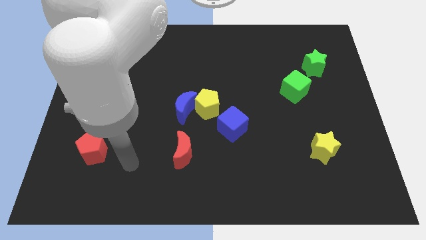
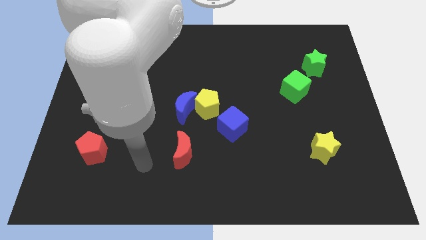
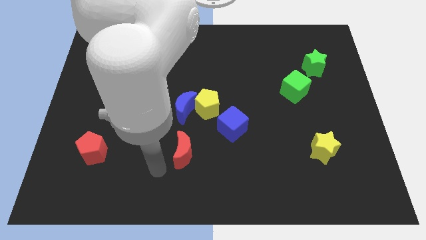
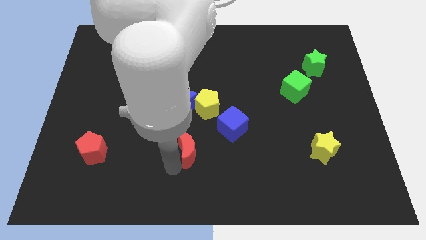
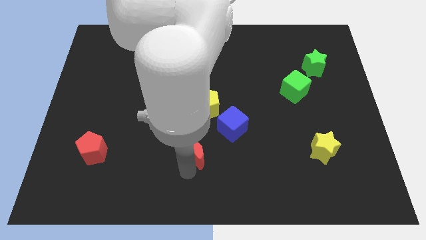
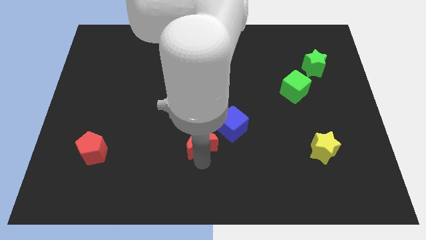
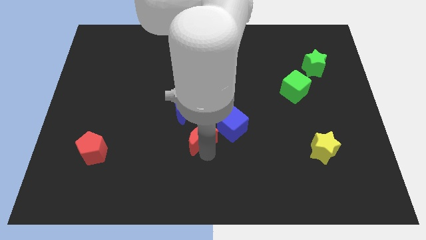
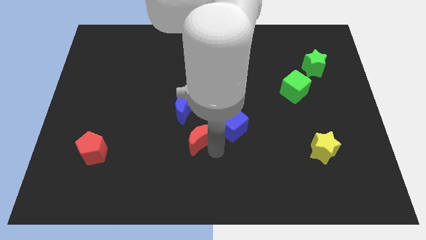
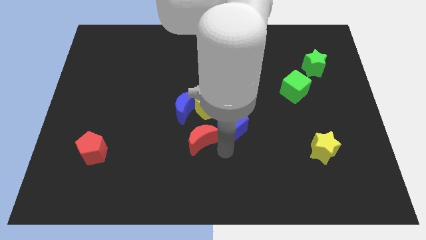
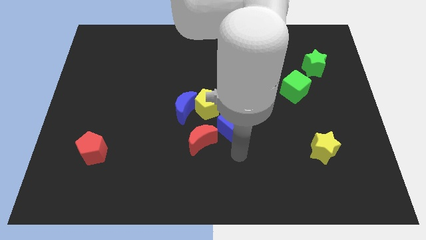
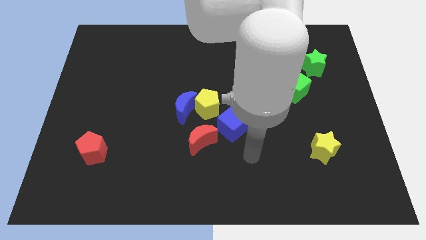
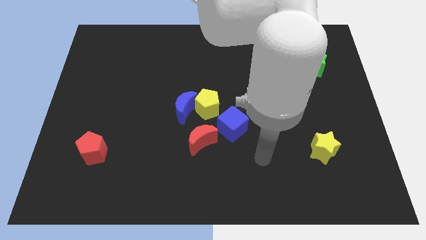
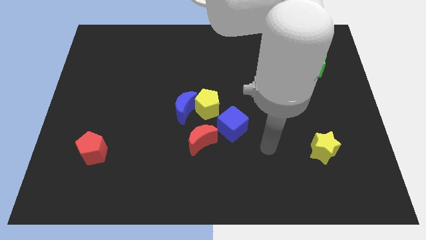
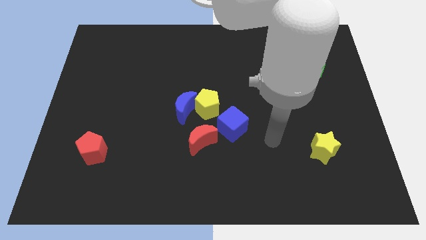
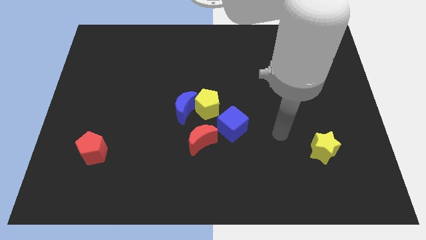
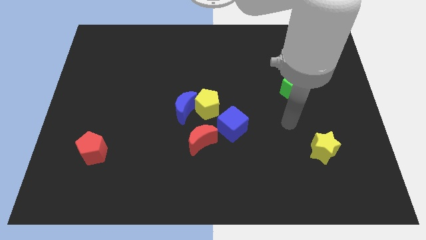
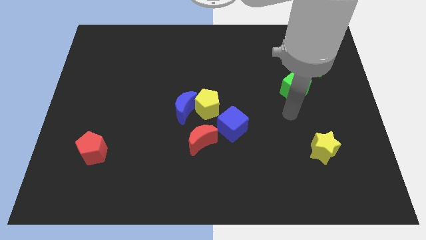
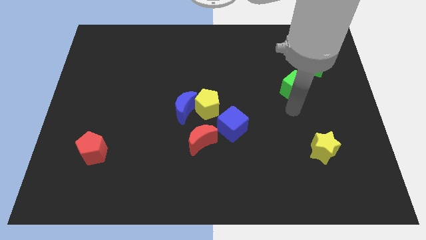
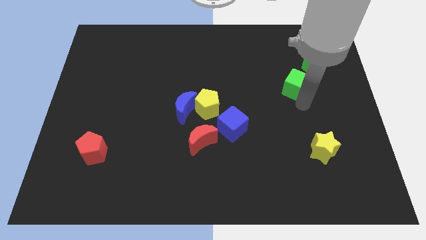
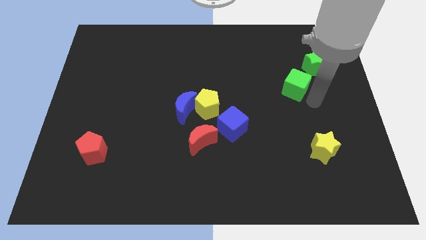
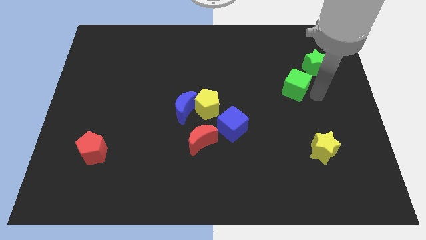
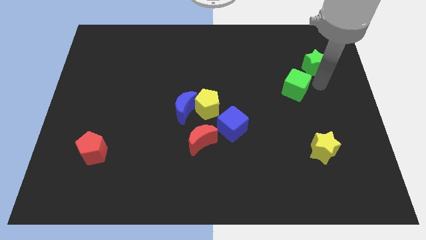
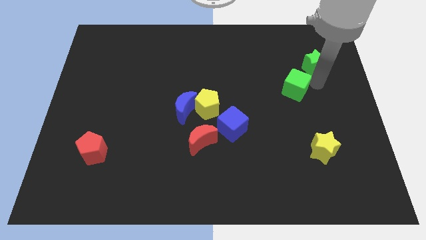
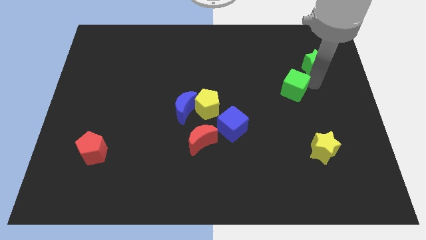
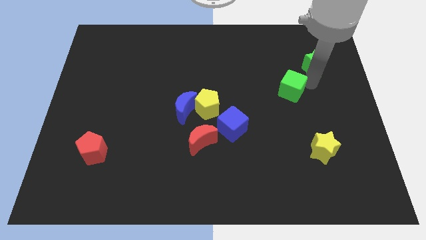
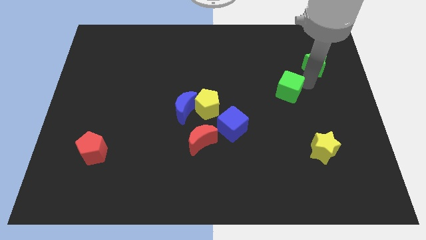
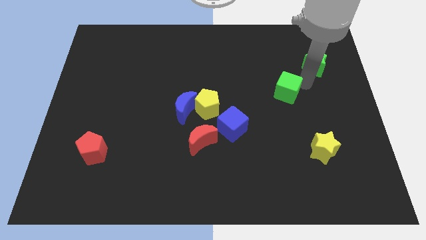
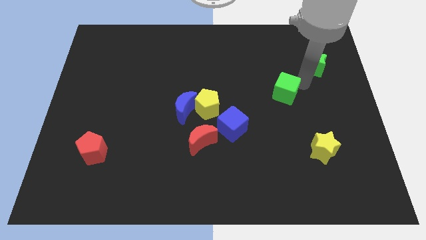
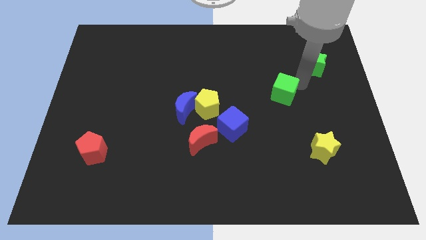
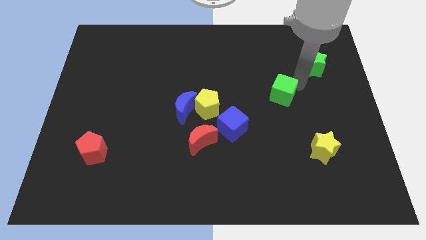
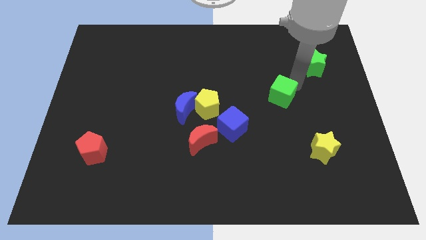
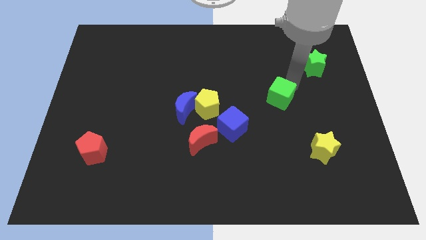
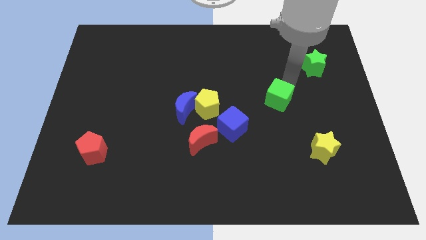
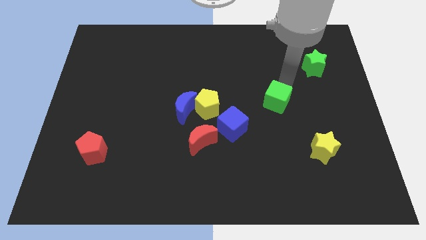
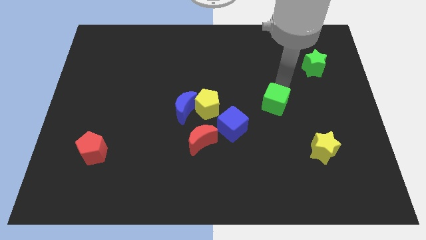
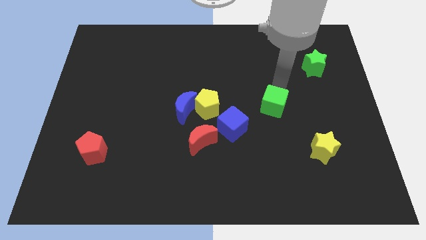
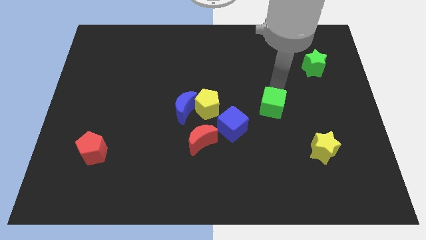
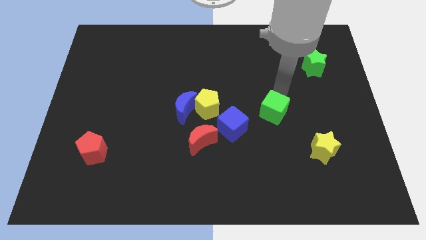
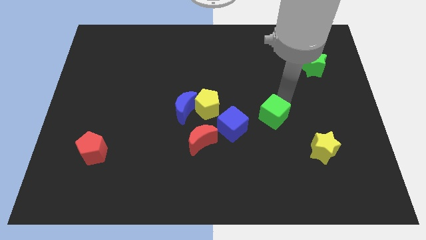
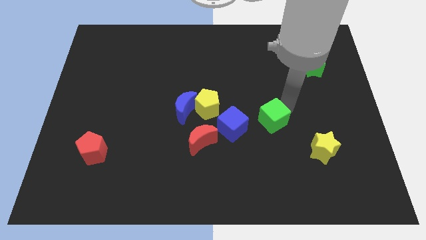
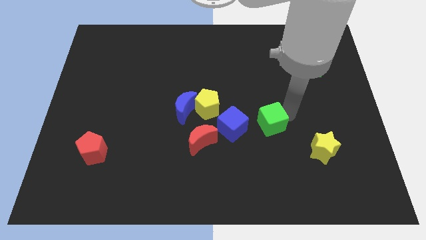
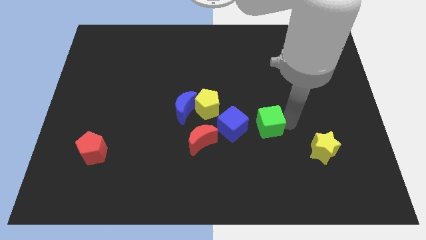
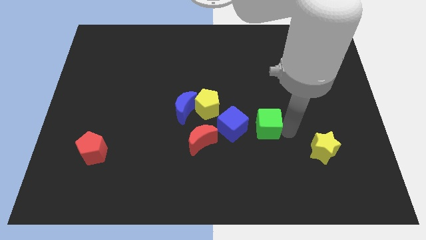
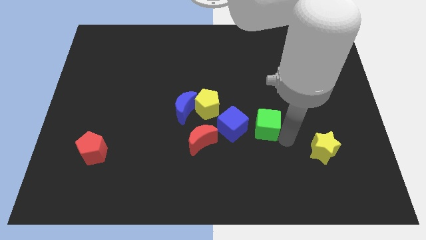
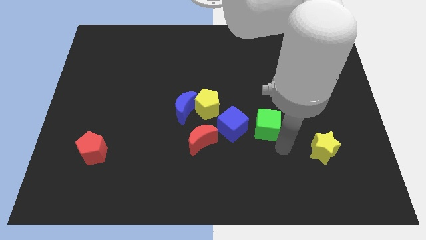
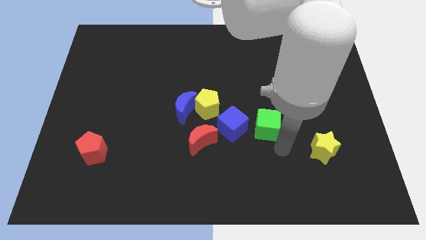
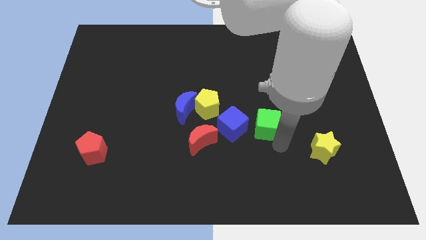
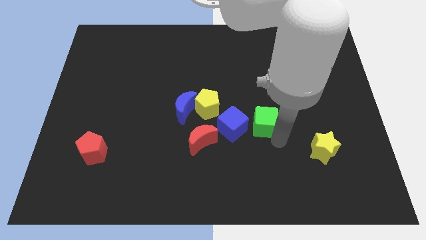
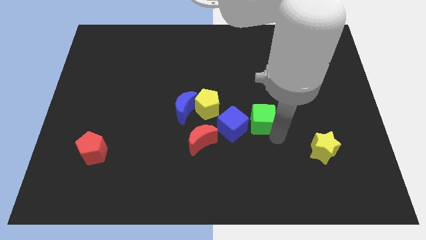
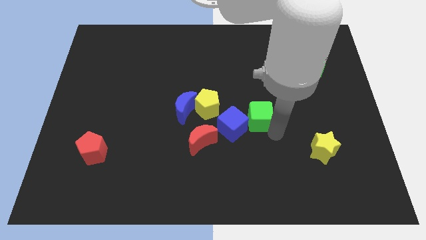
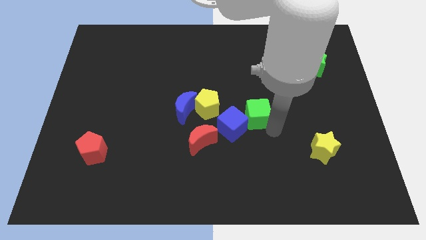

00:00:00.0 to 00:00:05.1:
move the green cube slightly left

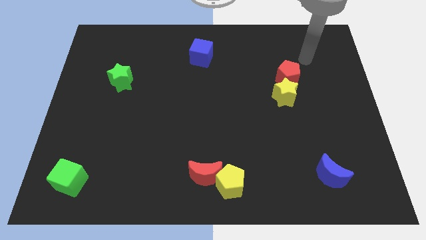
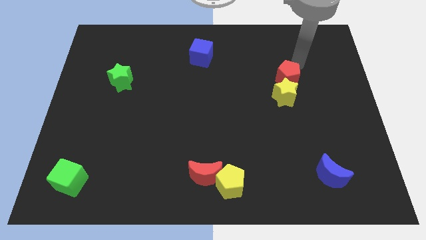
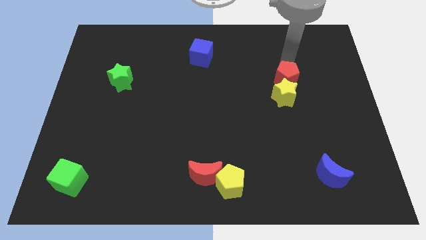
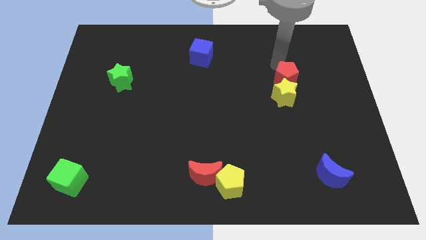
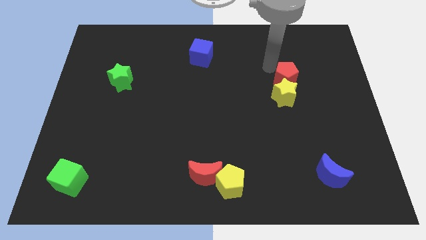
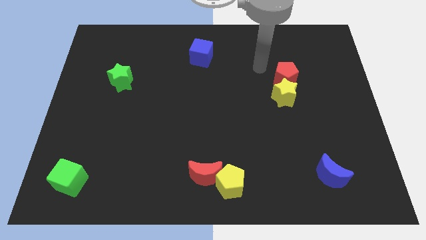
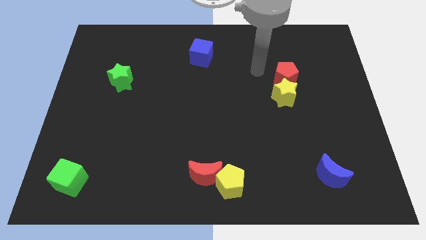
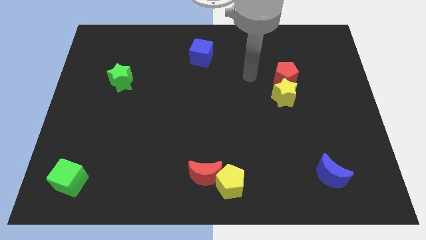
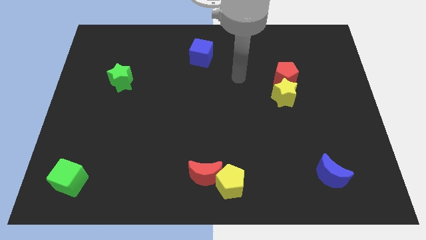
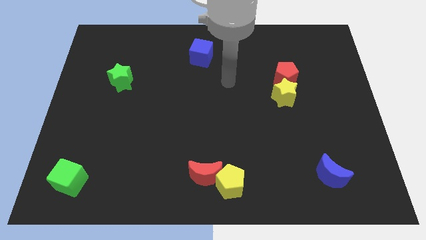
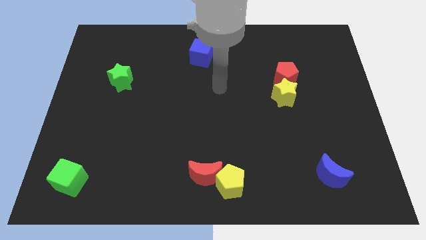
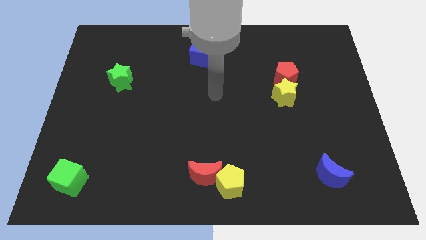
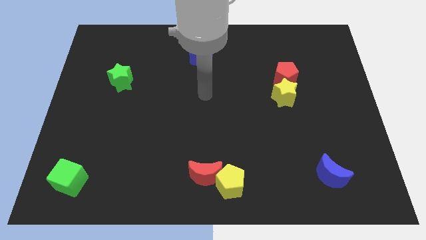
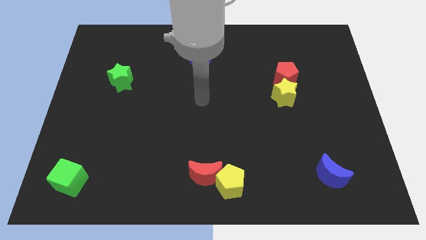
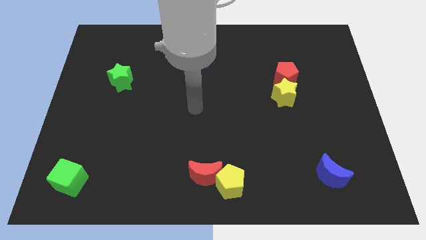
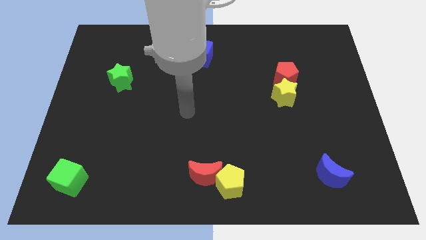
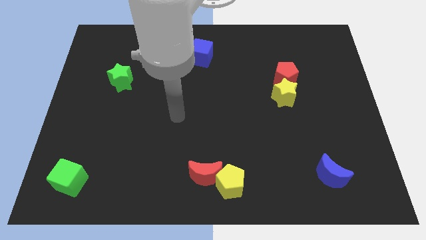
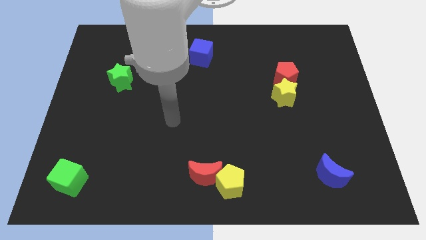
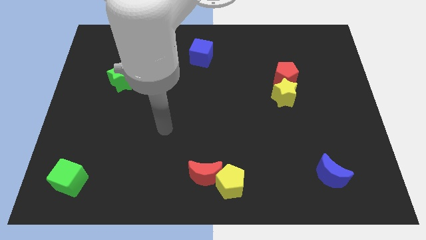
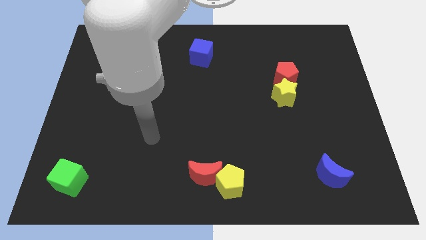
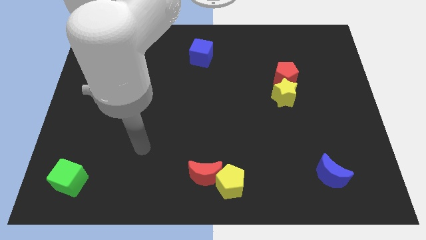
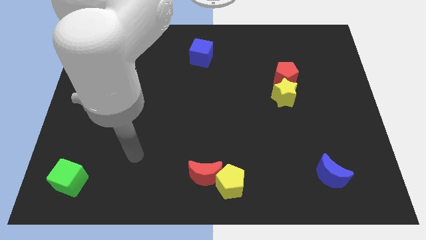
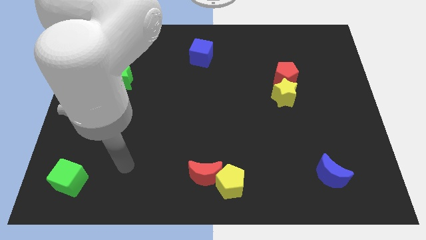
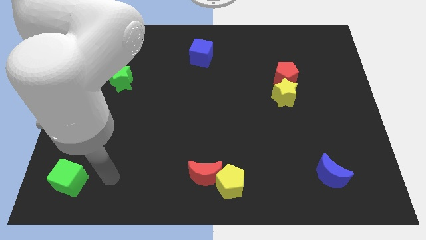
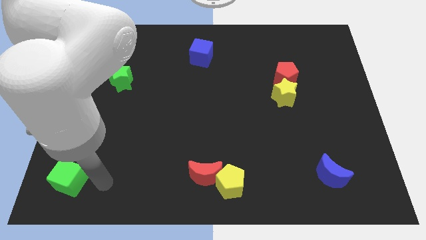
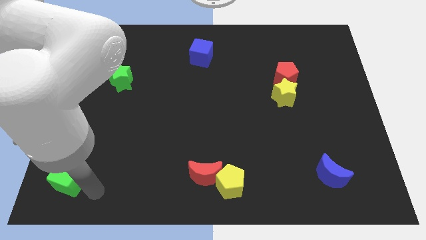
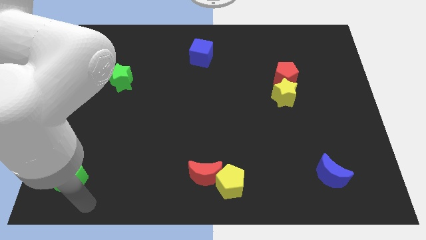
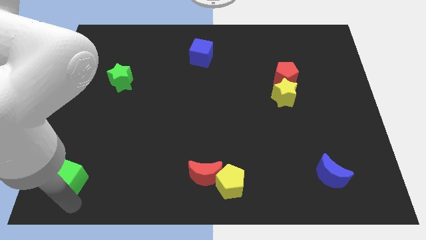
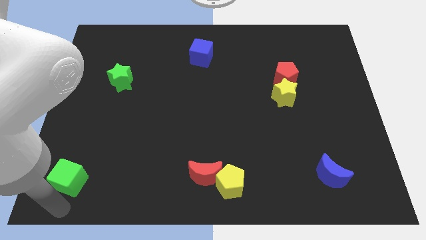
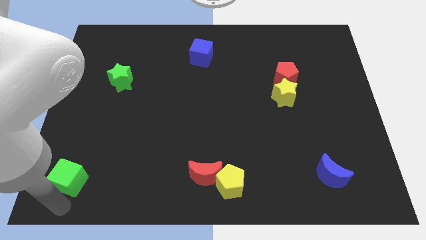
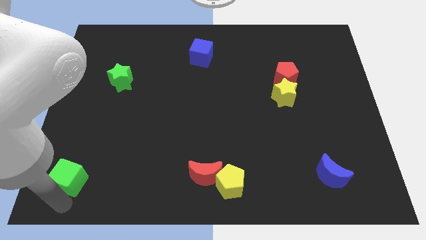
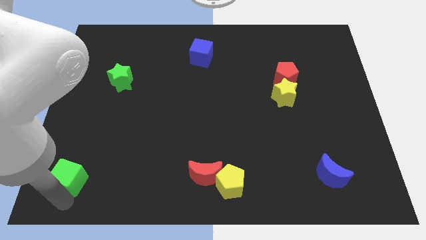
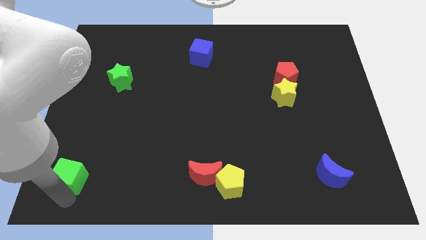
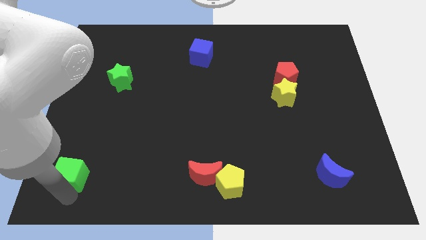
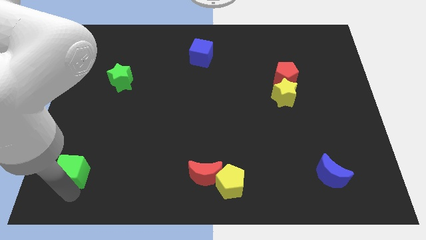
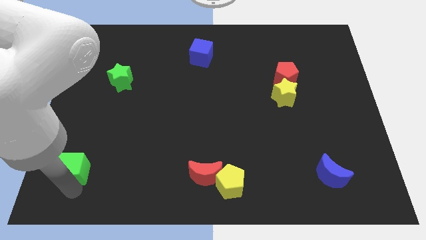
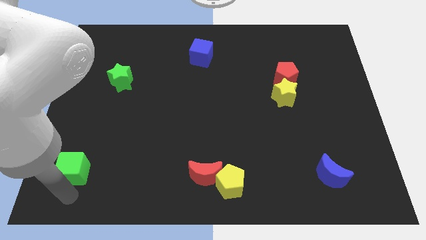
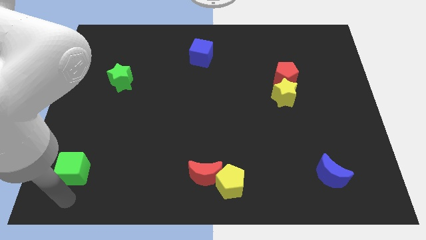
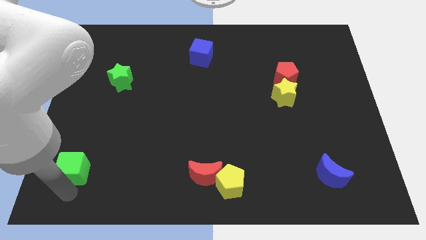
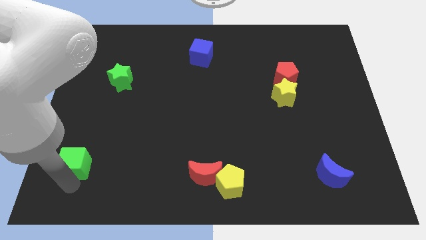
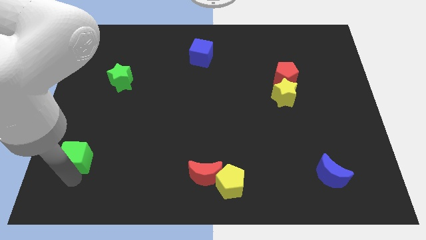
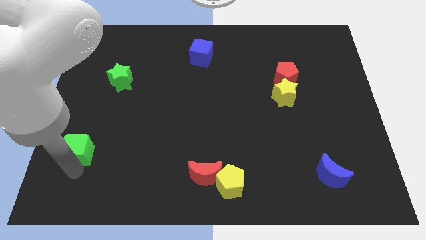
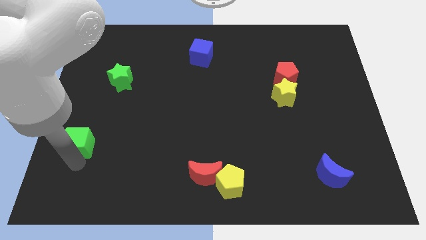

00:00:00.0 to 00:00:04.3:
slightly move the green cube up
